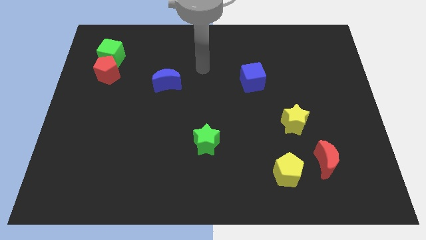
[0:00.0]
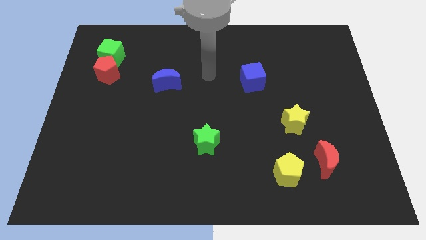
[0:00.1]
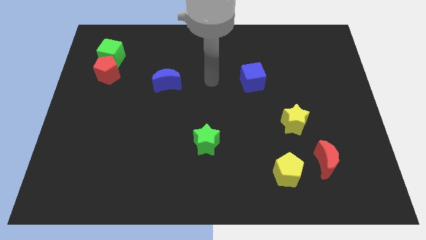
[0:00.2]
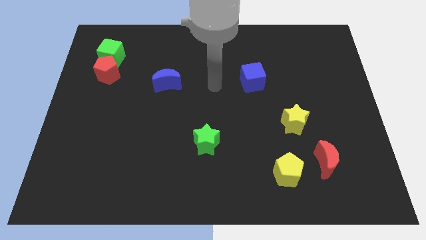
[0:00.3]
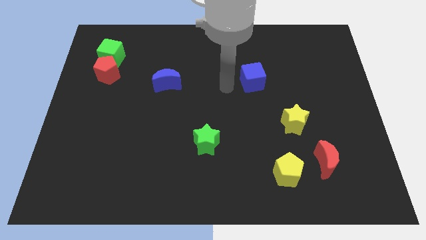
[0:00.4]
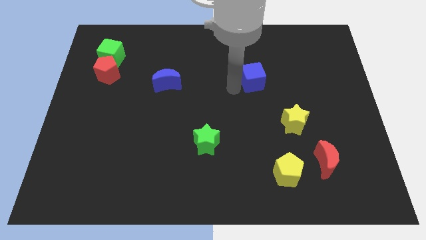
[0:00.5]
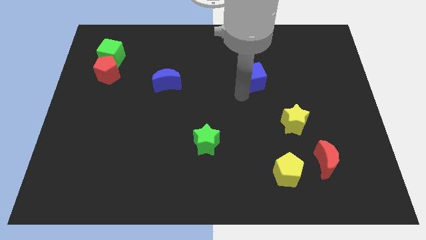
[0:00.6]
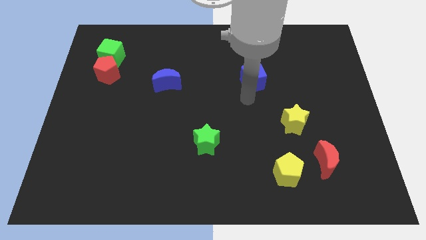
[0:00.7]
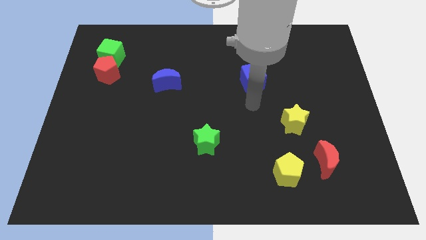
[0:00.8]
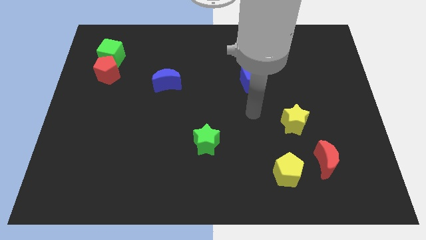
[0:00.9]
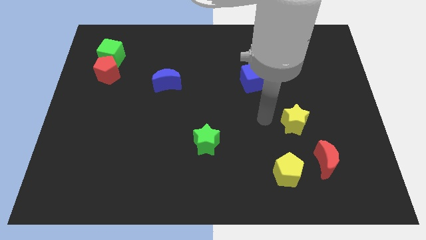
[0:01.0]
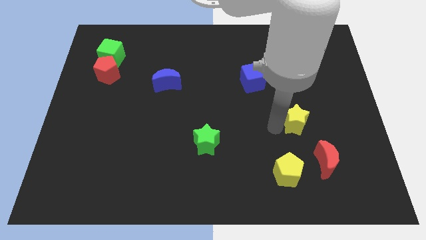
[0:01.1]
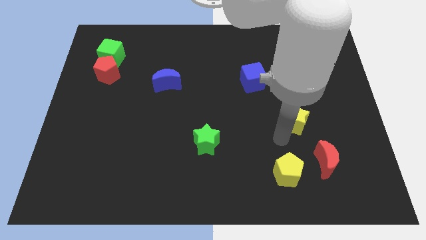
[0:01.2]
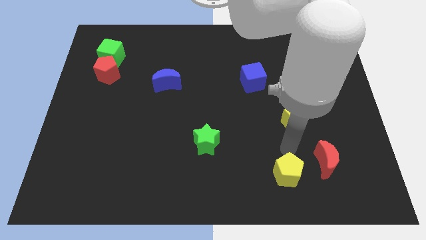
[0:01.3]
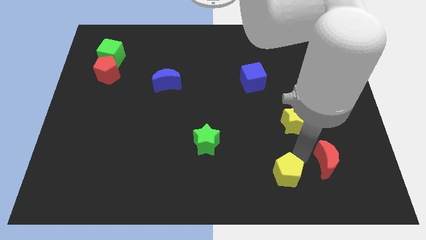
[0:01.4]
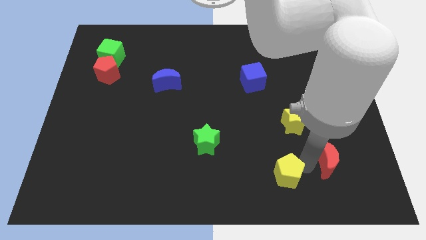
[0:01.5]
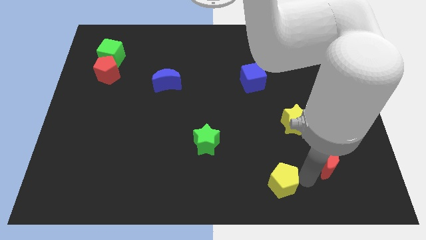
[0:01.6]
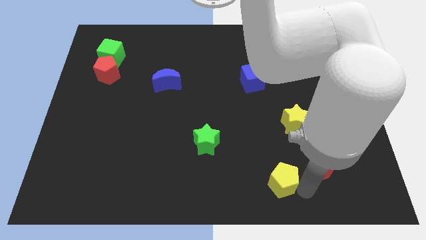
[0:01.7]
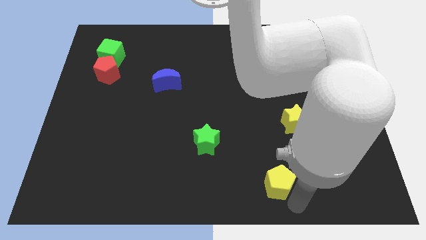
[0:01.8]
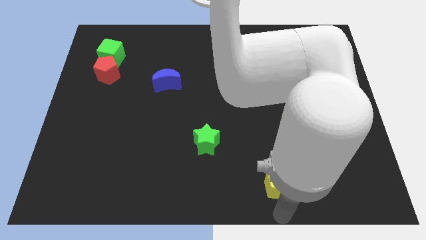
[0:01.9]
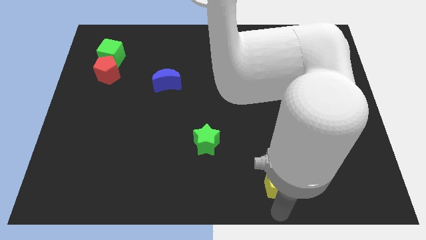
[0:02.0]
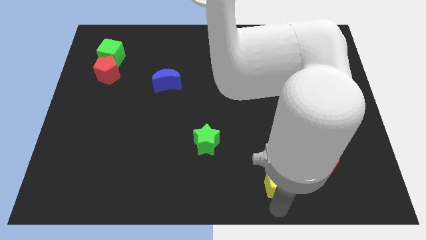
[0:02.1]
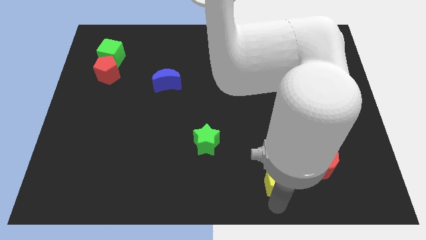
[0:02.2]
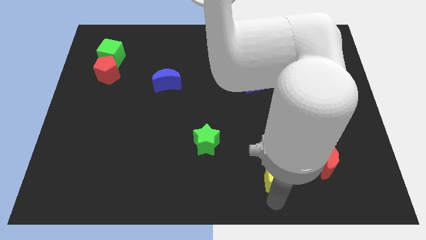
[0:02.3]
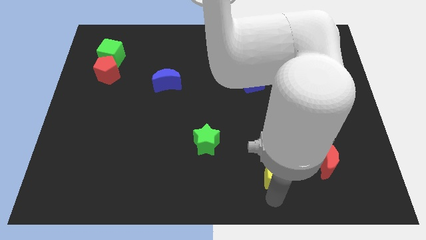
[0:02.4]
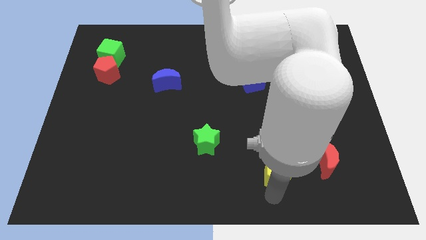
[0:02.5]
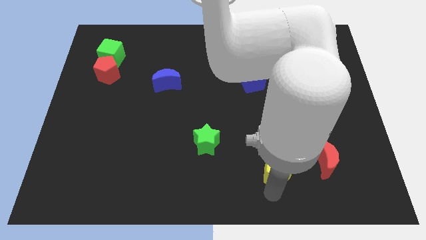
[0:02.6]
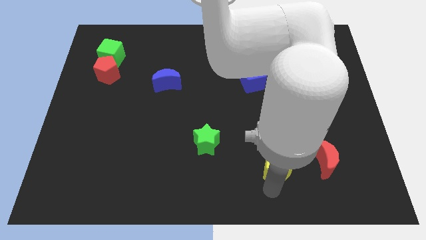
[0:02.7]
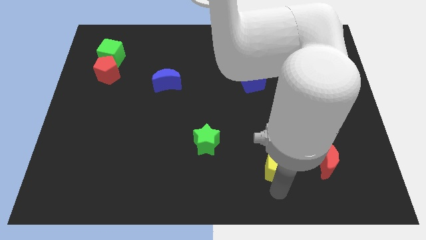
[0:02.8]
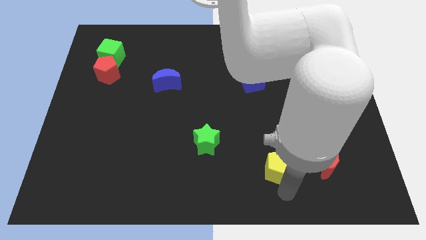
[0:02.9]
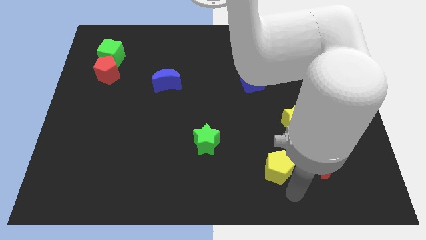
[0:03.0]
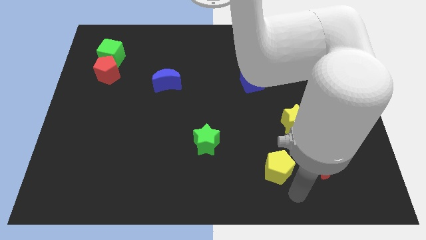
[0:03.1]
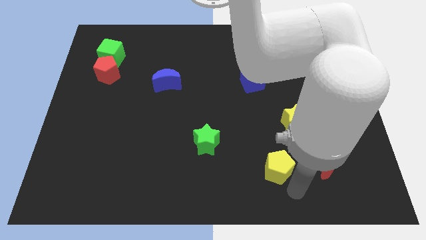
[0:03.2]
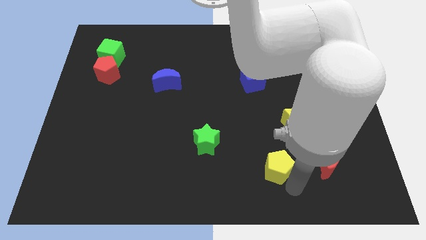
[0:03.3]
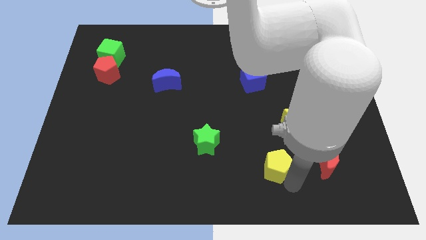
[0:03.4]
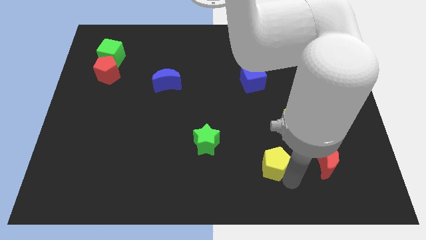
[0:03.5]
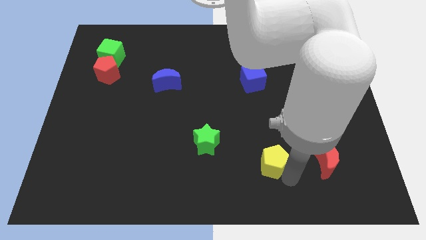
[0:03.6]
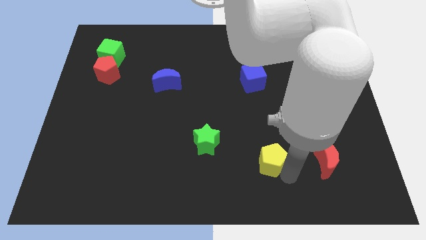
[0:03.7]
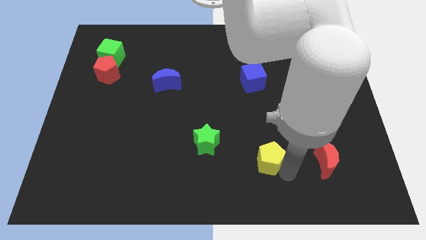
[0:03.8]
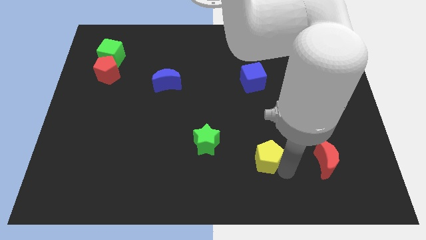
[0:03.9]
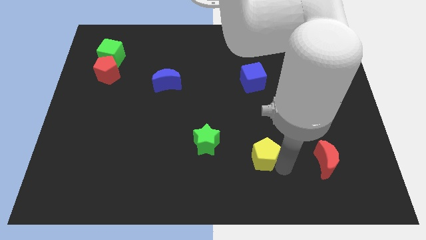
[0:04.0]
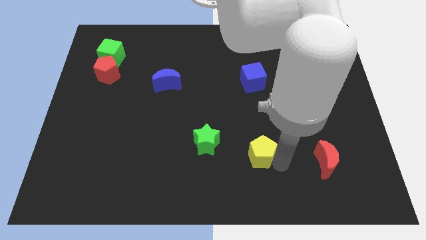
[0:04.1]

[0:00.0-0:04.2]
slide the yellow pentagon upwards and left a bit

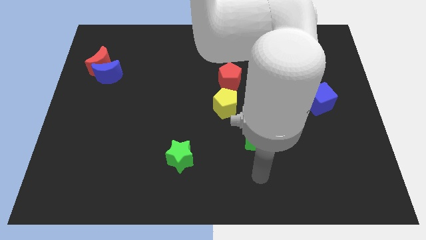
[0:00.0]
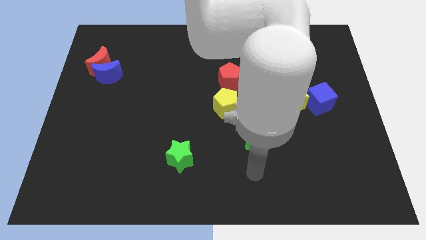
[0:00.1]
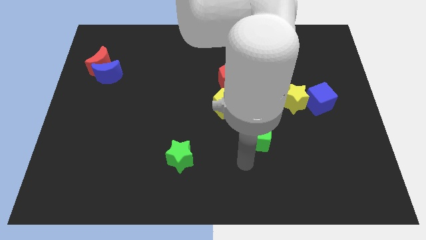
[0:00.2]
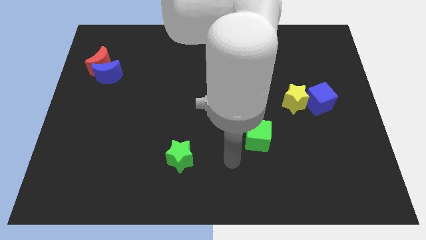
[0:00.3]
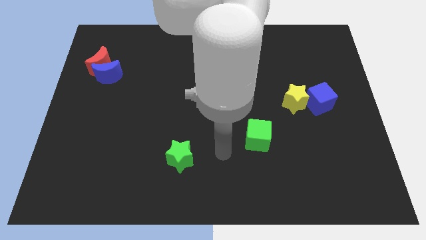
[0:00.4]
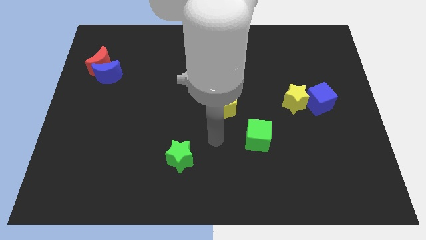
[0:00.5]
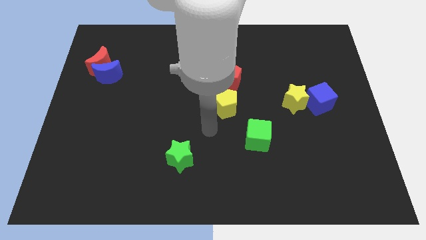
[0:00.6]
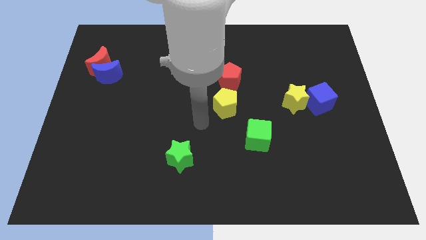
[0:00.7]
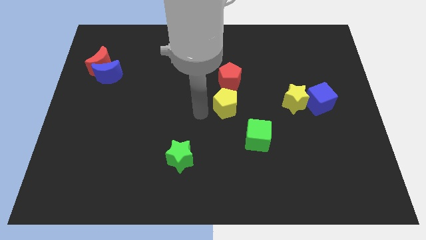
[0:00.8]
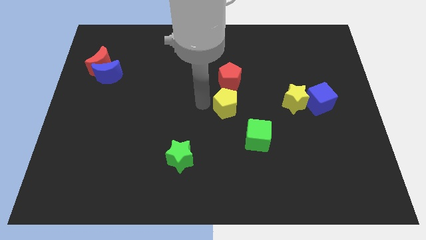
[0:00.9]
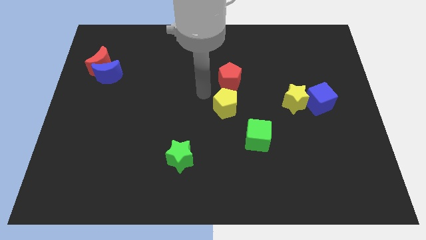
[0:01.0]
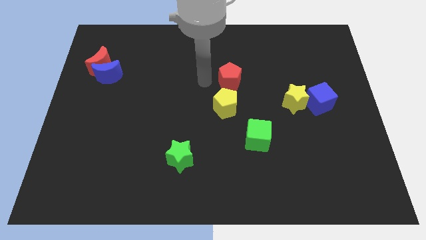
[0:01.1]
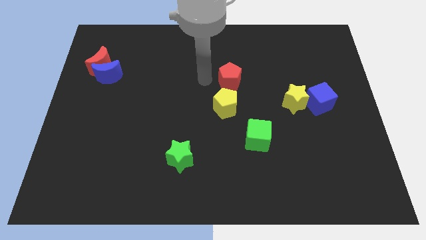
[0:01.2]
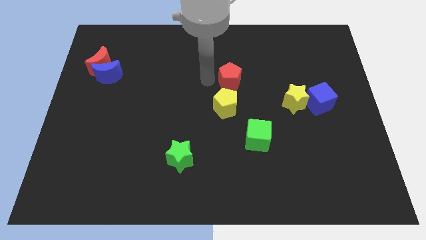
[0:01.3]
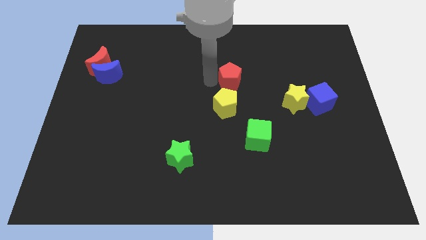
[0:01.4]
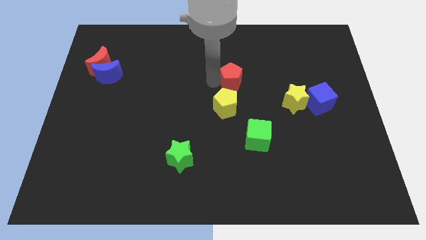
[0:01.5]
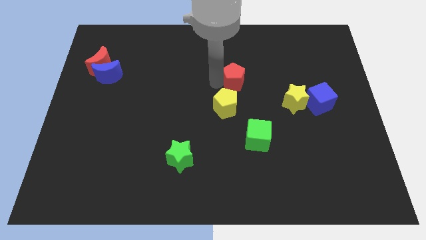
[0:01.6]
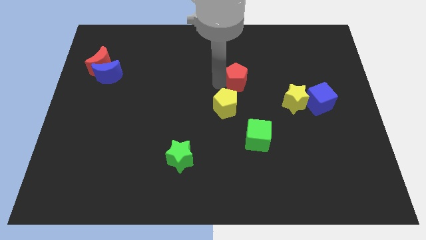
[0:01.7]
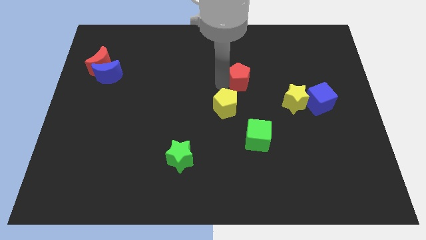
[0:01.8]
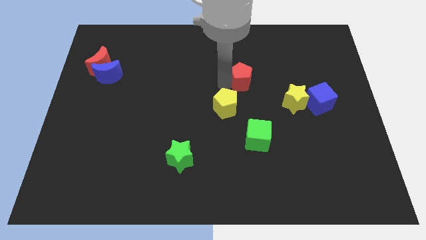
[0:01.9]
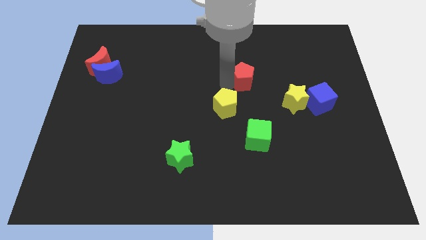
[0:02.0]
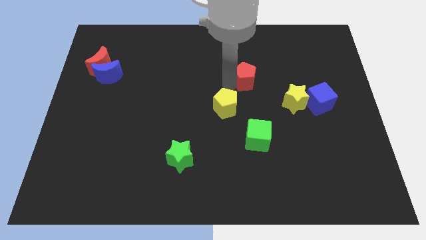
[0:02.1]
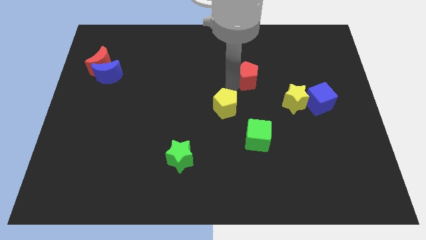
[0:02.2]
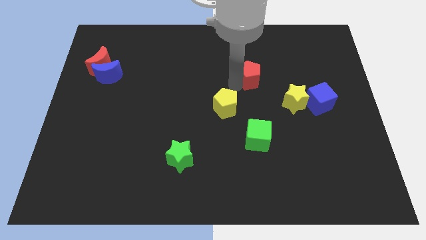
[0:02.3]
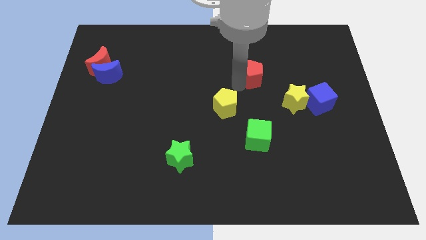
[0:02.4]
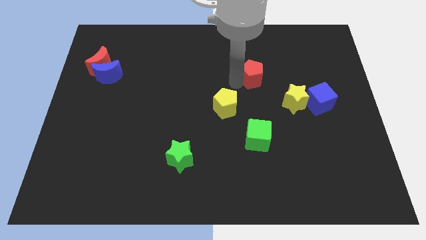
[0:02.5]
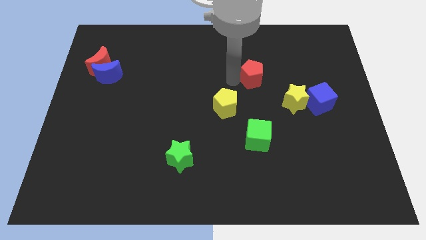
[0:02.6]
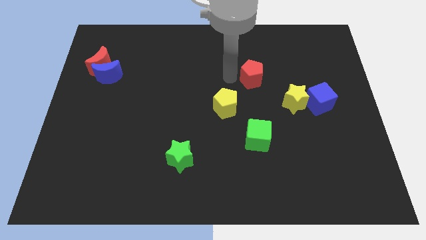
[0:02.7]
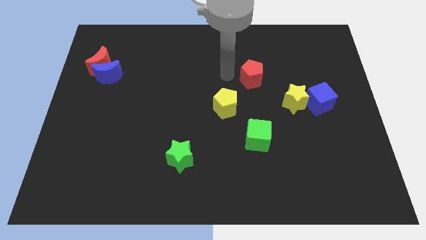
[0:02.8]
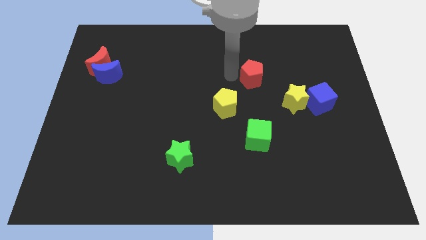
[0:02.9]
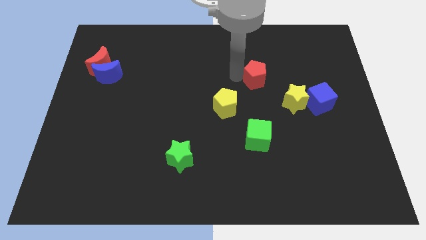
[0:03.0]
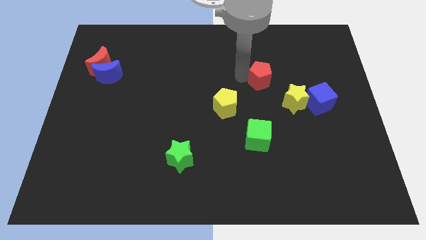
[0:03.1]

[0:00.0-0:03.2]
move the red pentagon a little right
